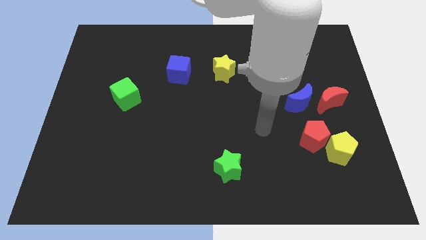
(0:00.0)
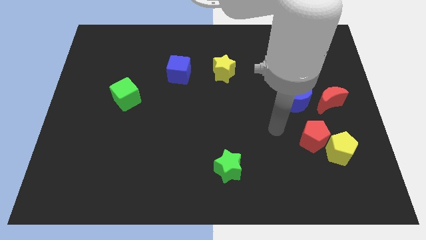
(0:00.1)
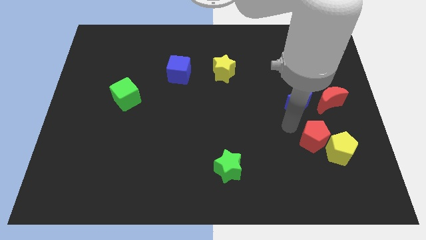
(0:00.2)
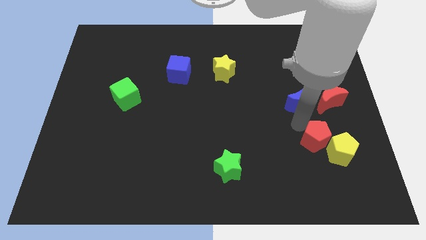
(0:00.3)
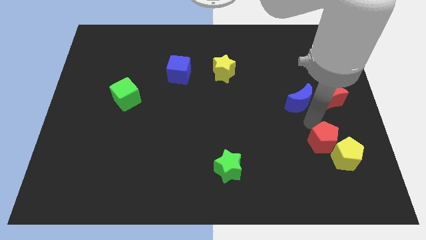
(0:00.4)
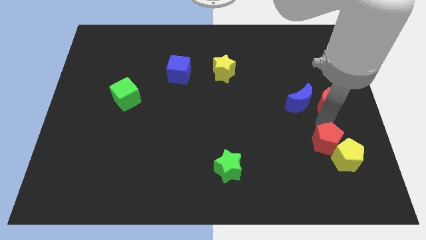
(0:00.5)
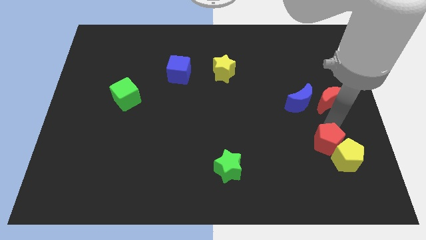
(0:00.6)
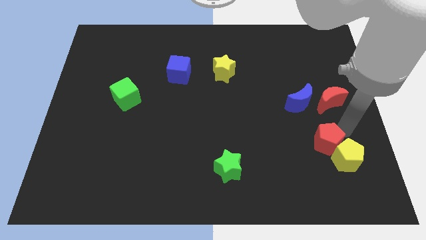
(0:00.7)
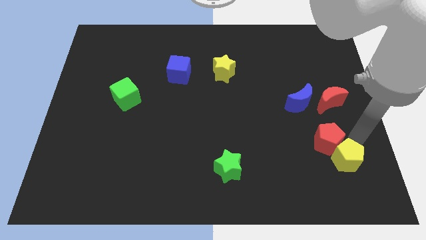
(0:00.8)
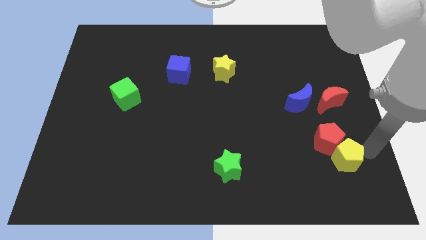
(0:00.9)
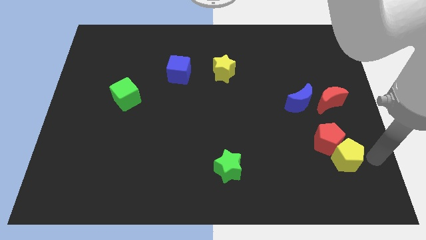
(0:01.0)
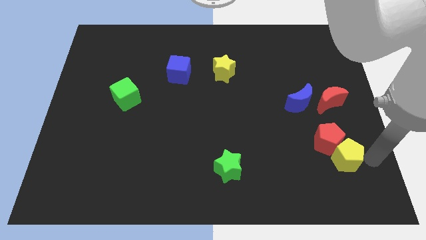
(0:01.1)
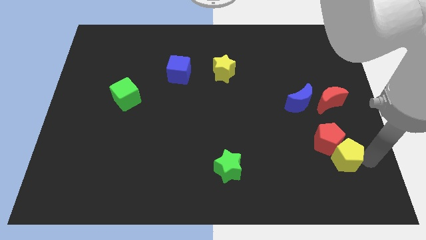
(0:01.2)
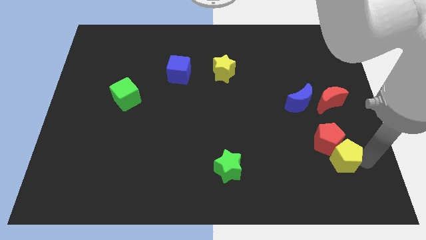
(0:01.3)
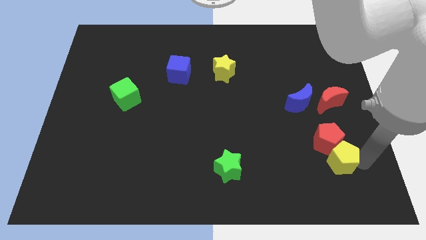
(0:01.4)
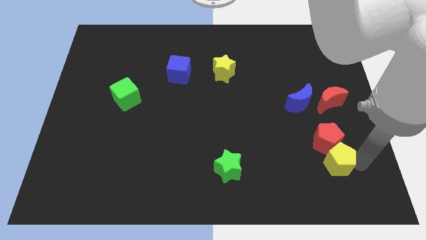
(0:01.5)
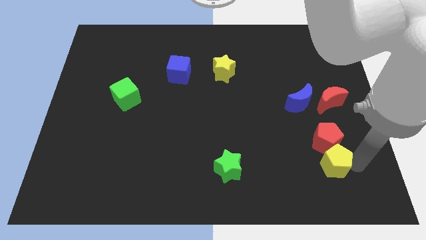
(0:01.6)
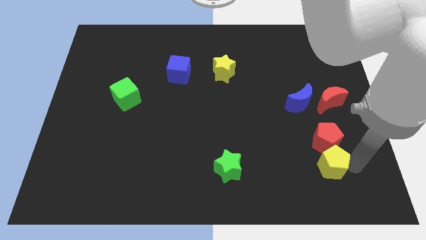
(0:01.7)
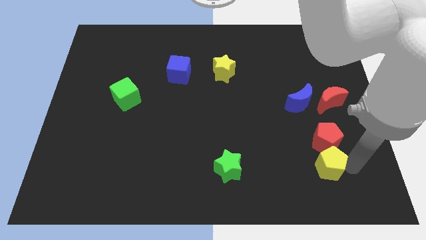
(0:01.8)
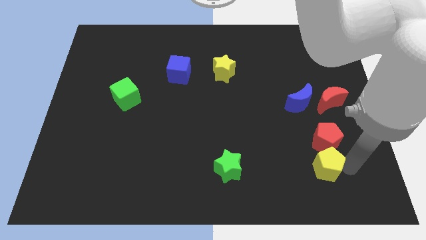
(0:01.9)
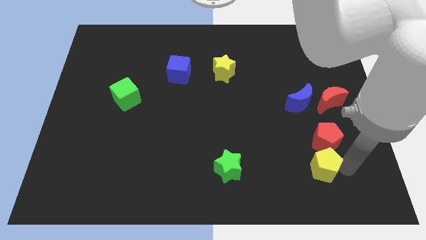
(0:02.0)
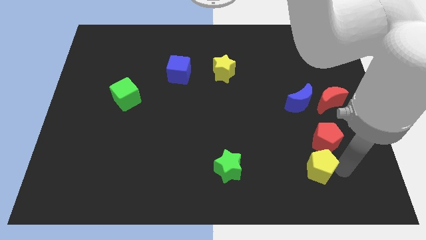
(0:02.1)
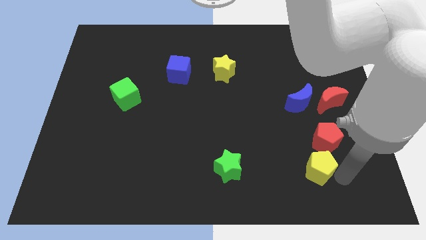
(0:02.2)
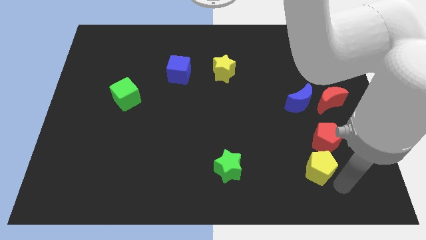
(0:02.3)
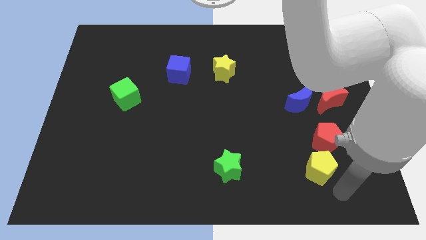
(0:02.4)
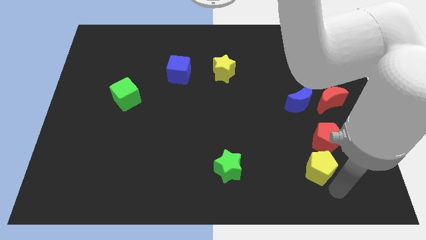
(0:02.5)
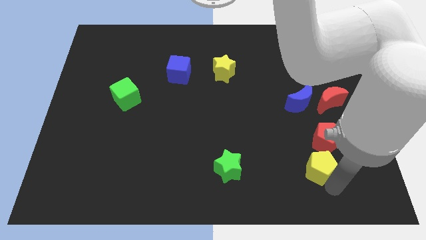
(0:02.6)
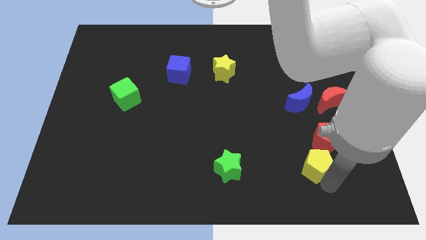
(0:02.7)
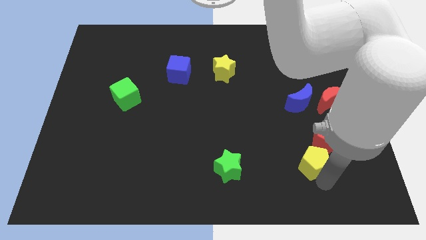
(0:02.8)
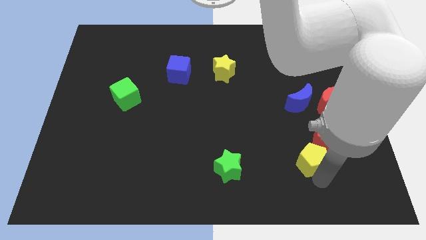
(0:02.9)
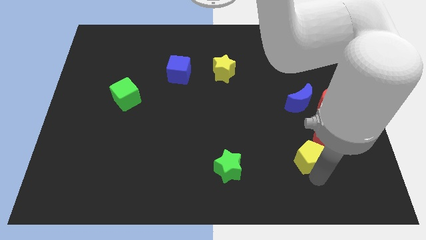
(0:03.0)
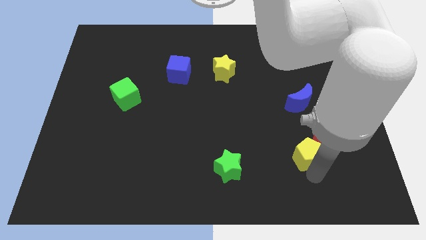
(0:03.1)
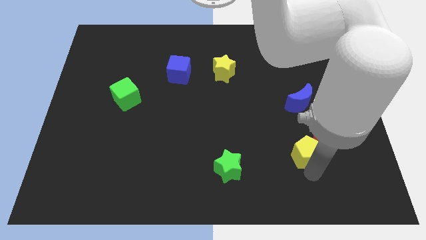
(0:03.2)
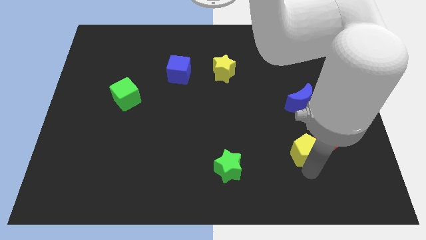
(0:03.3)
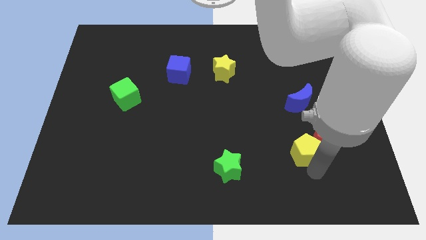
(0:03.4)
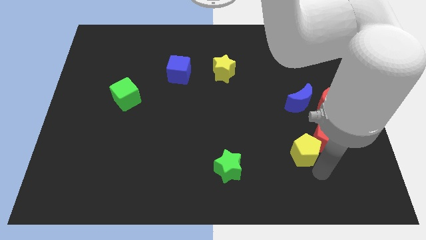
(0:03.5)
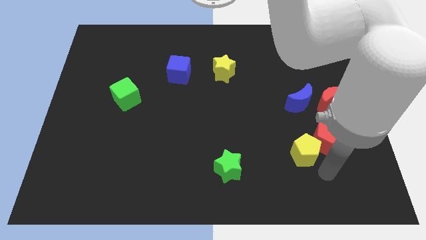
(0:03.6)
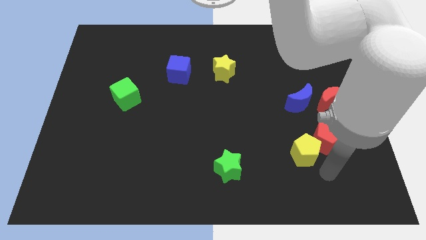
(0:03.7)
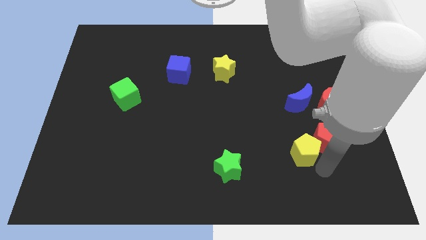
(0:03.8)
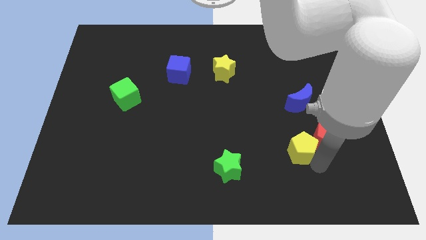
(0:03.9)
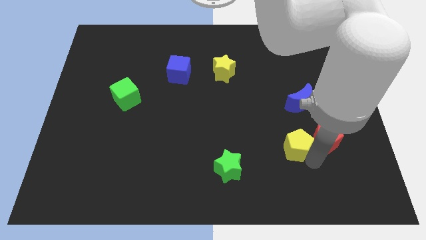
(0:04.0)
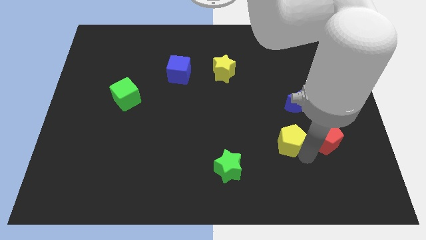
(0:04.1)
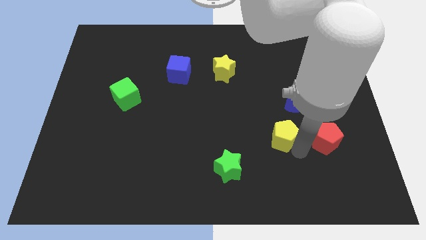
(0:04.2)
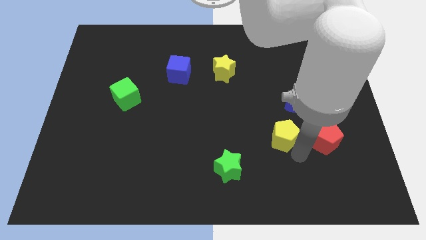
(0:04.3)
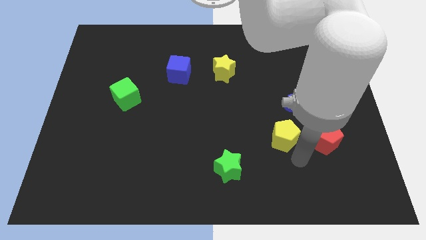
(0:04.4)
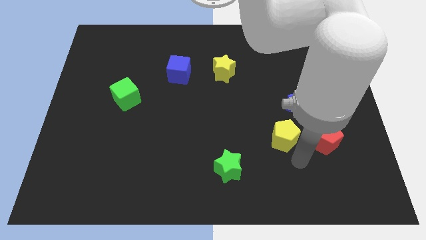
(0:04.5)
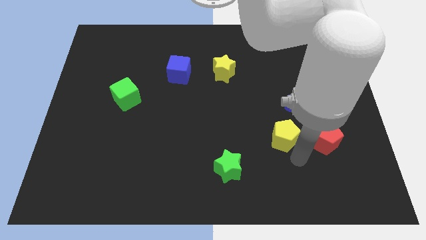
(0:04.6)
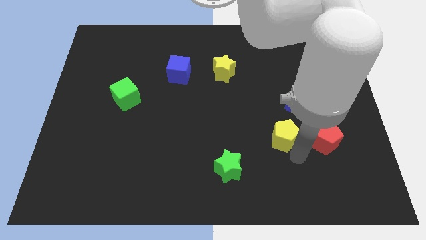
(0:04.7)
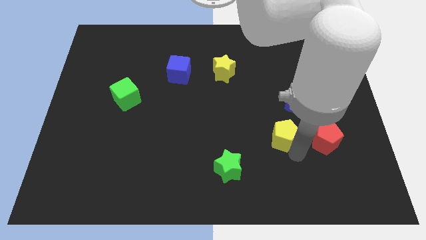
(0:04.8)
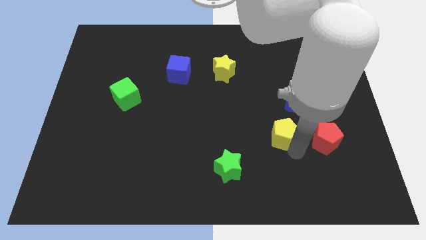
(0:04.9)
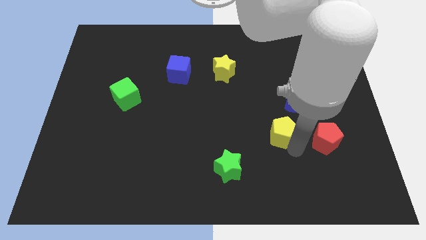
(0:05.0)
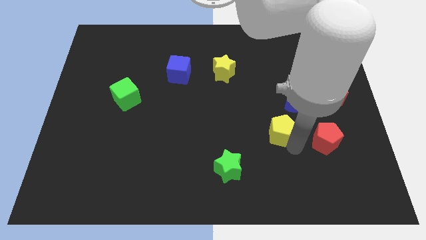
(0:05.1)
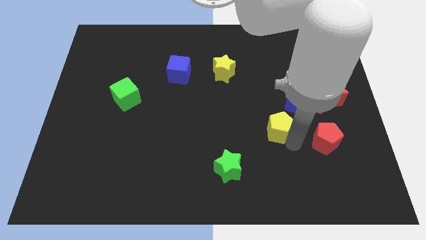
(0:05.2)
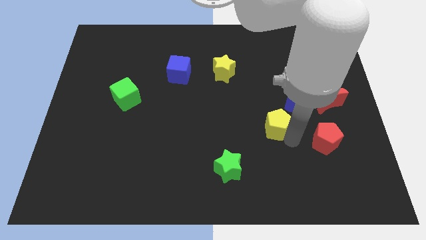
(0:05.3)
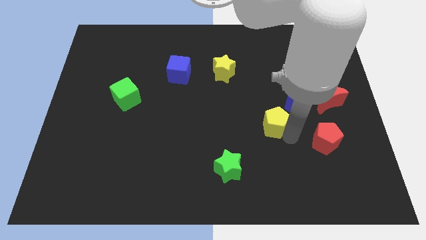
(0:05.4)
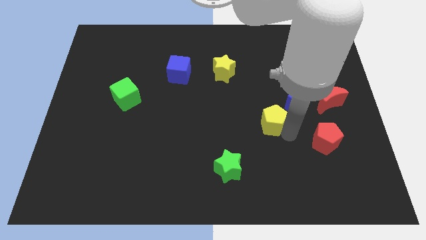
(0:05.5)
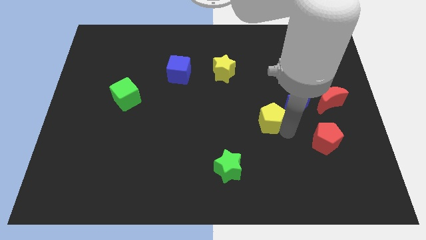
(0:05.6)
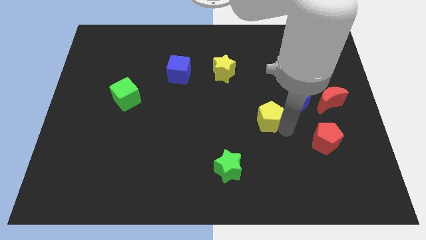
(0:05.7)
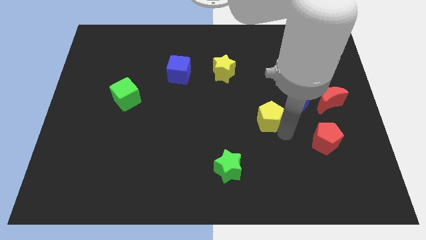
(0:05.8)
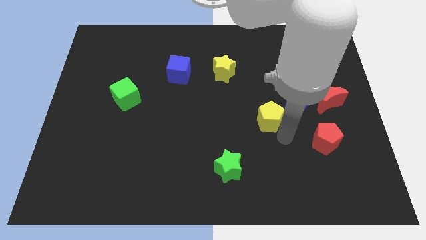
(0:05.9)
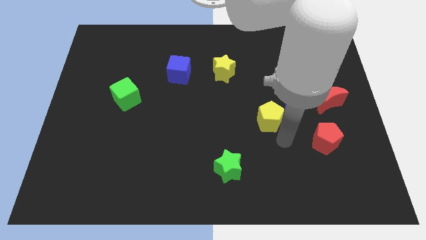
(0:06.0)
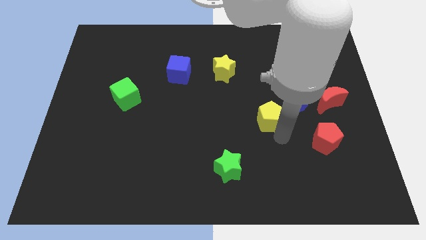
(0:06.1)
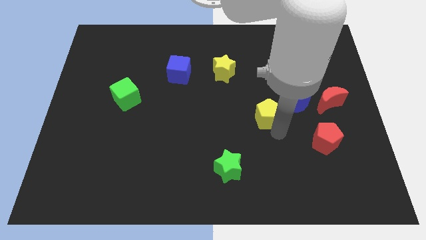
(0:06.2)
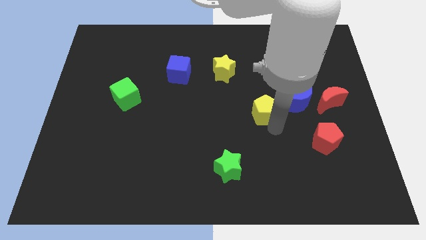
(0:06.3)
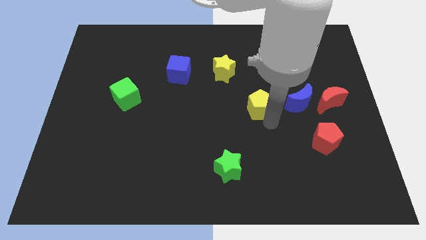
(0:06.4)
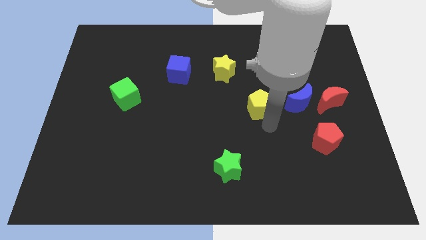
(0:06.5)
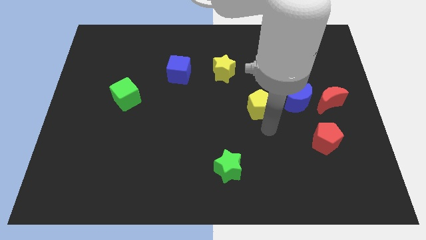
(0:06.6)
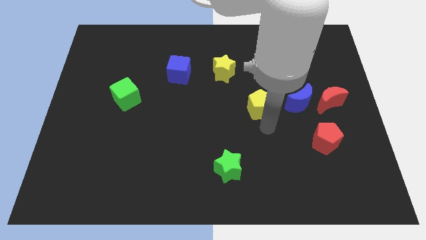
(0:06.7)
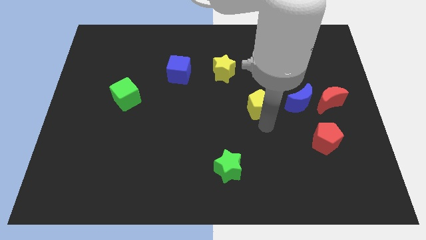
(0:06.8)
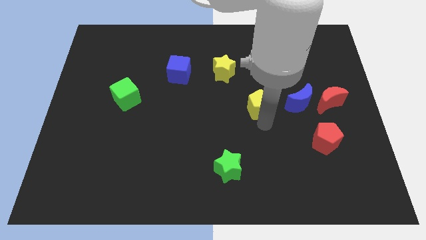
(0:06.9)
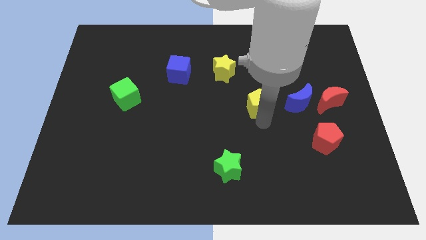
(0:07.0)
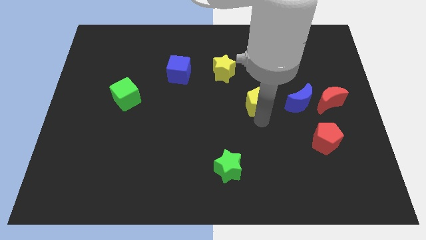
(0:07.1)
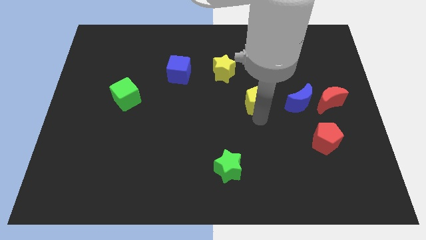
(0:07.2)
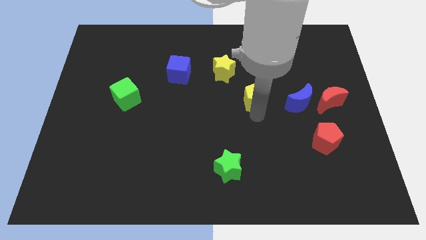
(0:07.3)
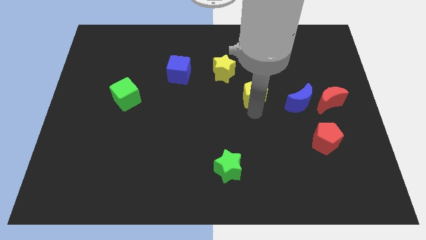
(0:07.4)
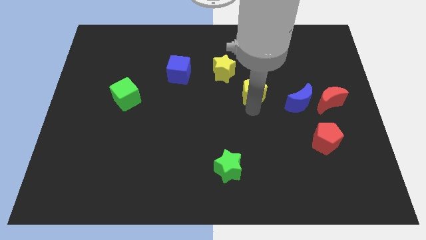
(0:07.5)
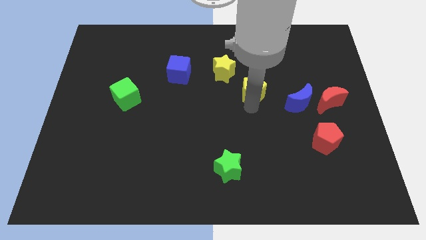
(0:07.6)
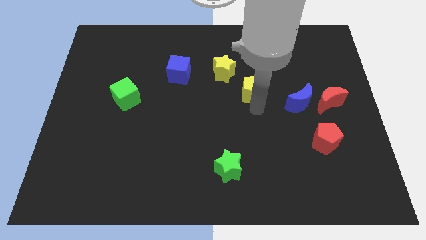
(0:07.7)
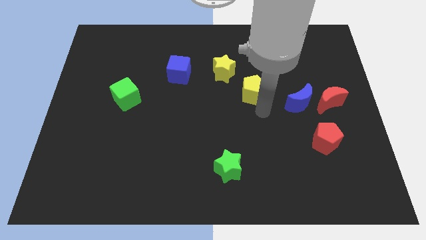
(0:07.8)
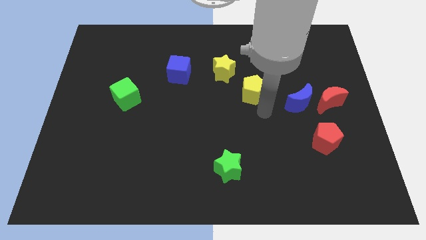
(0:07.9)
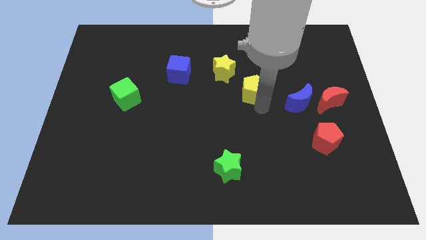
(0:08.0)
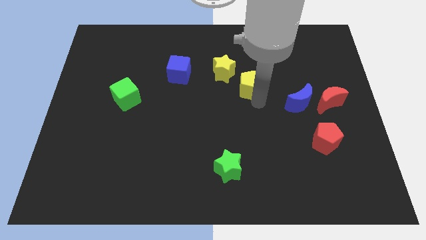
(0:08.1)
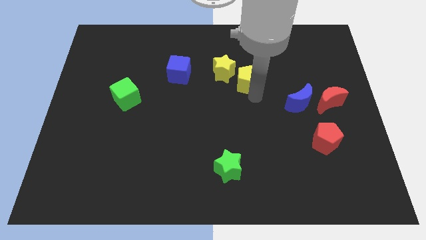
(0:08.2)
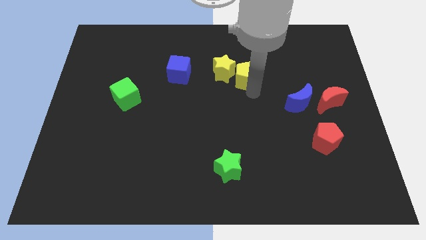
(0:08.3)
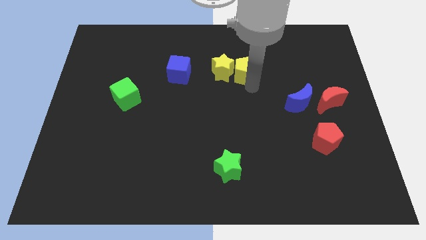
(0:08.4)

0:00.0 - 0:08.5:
put the yellow pentagon to the right of the blue cube
